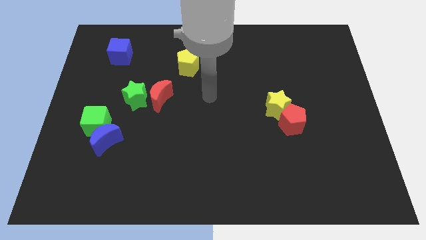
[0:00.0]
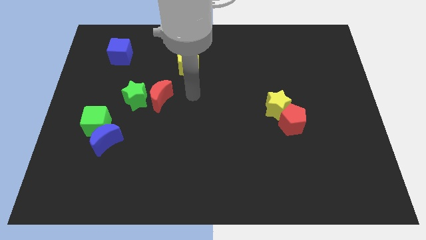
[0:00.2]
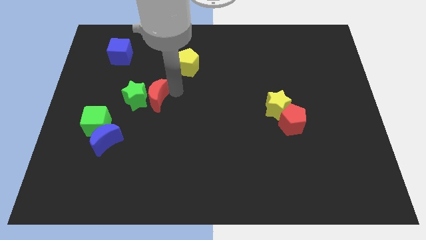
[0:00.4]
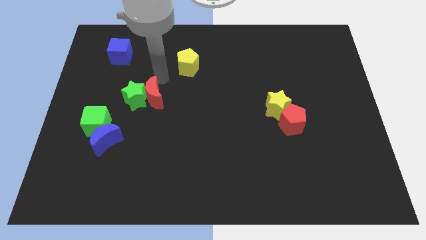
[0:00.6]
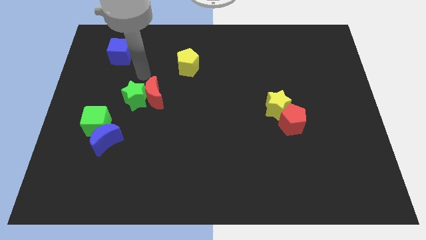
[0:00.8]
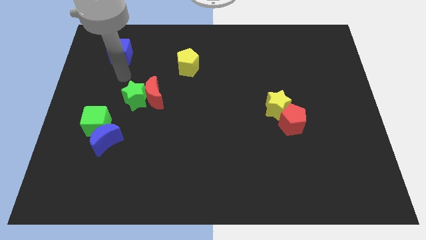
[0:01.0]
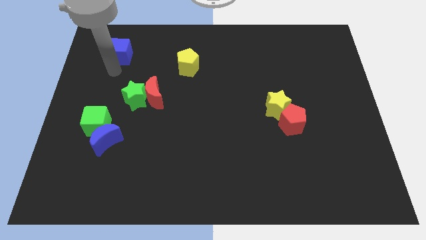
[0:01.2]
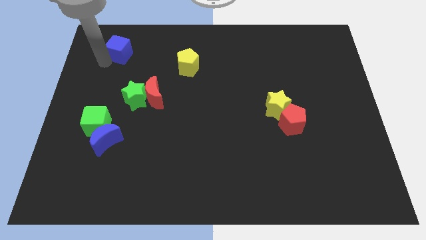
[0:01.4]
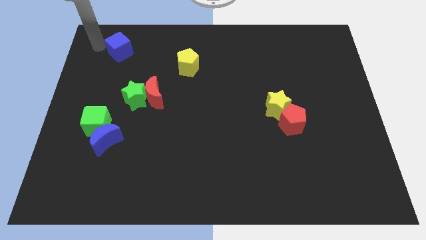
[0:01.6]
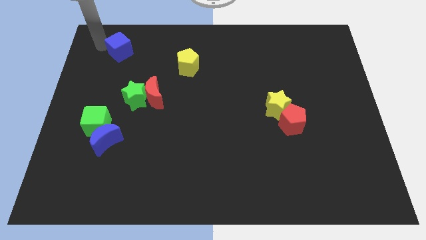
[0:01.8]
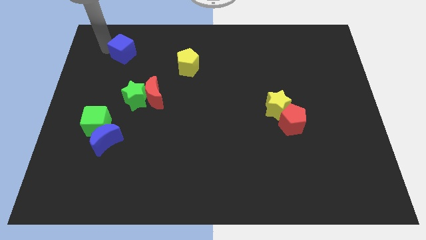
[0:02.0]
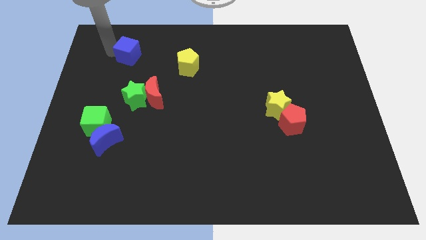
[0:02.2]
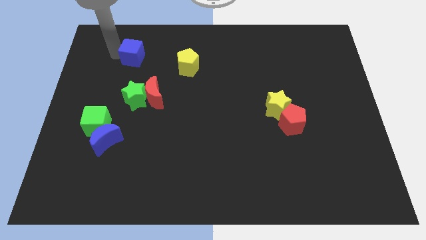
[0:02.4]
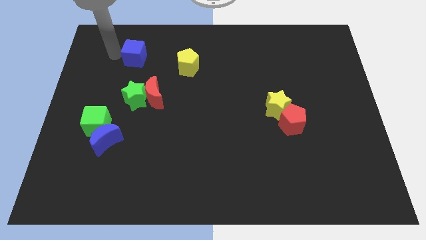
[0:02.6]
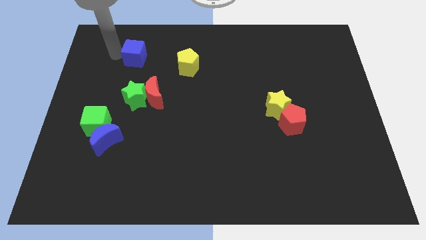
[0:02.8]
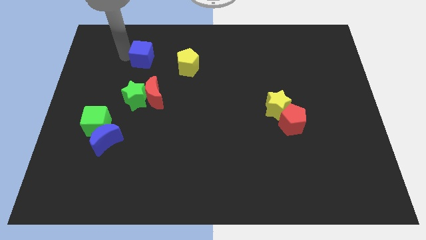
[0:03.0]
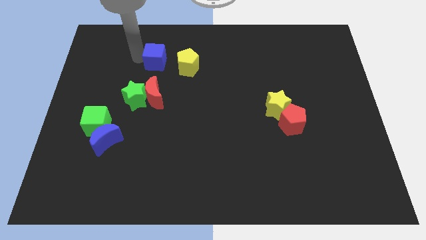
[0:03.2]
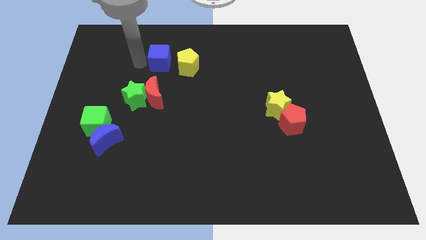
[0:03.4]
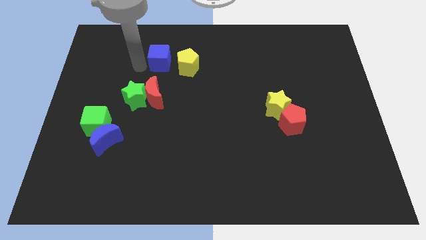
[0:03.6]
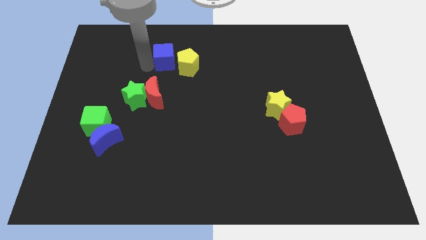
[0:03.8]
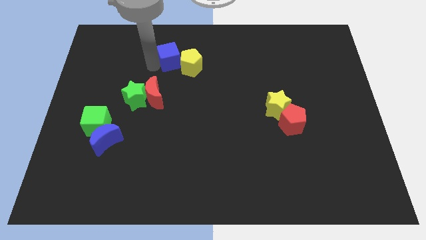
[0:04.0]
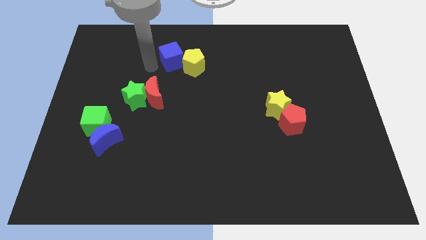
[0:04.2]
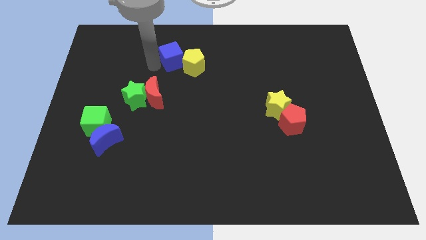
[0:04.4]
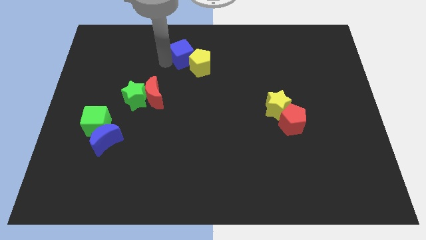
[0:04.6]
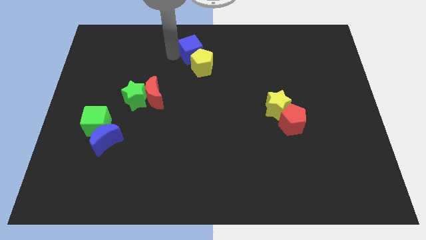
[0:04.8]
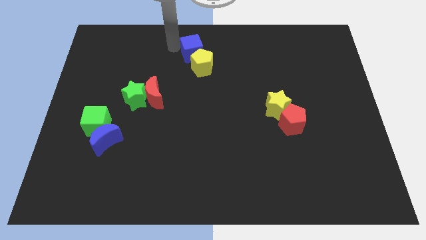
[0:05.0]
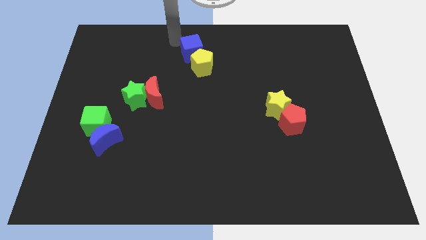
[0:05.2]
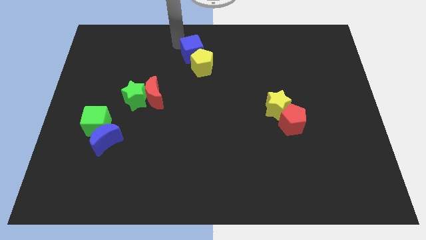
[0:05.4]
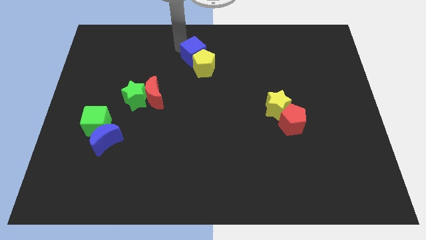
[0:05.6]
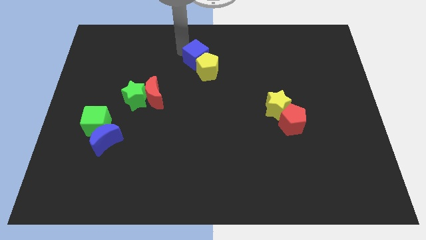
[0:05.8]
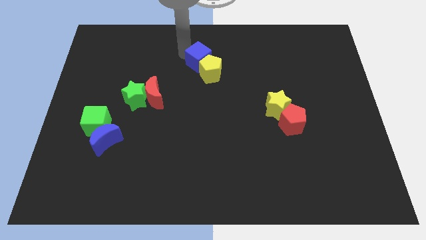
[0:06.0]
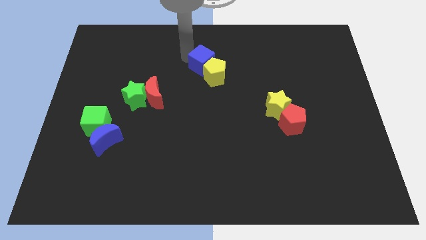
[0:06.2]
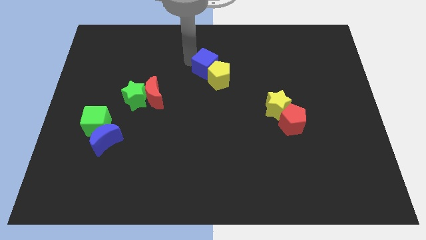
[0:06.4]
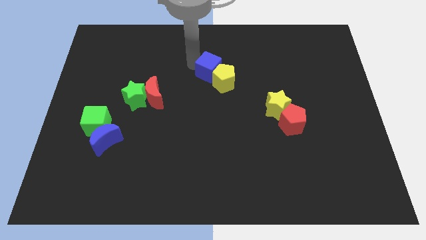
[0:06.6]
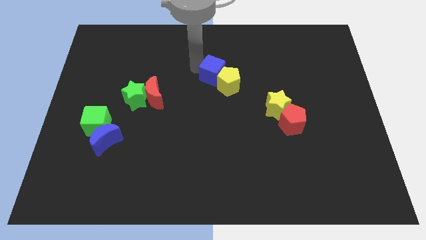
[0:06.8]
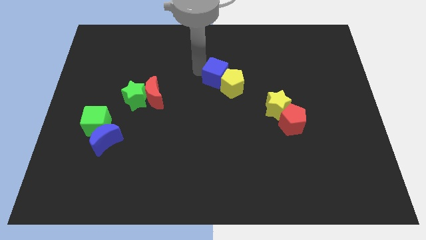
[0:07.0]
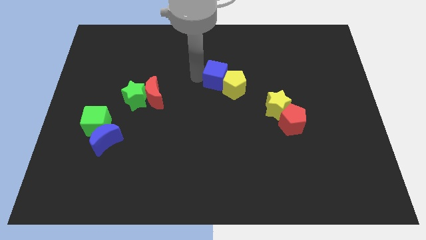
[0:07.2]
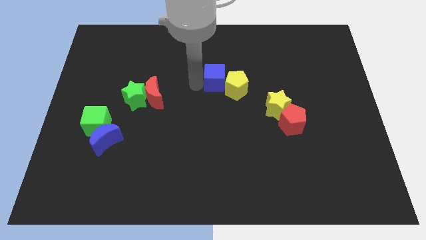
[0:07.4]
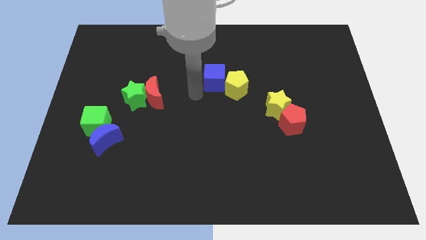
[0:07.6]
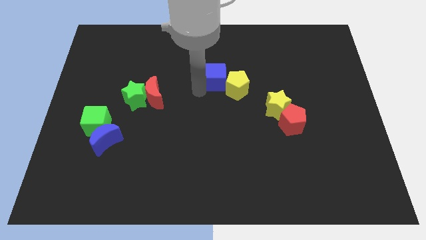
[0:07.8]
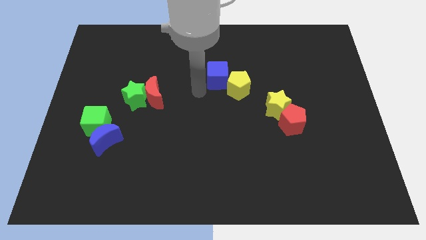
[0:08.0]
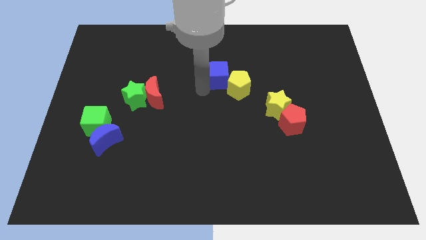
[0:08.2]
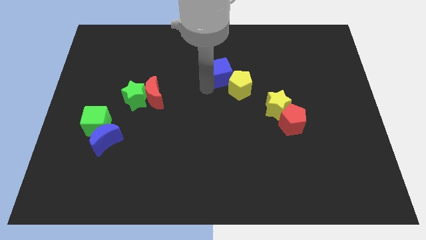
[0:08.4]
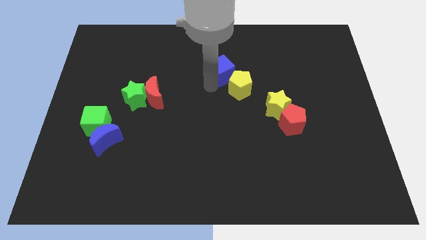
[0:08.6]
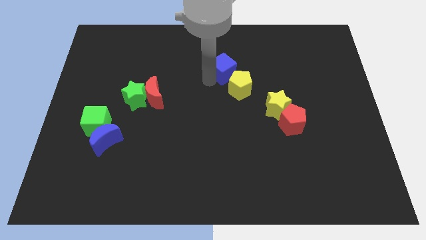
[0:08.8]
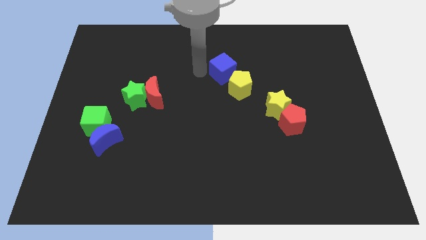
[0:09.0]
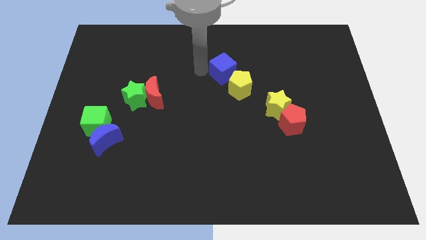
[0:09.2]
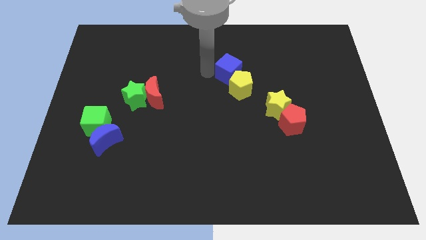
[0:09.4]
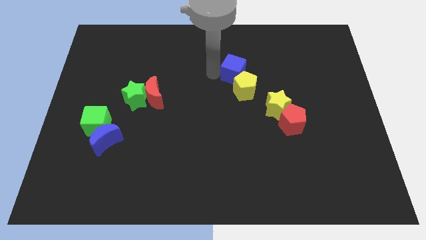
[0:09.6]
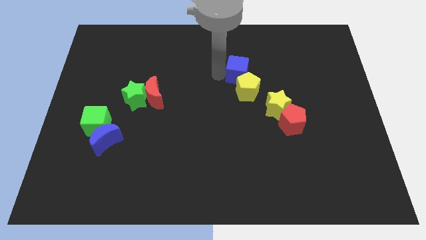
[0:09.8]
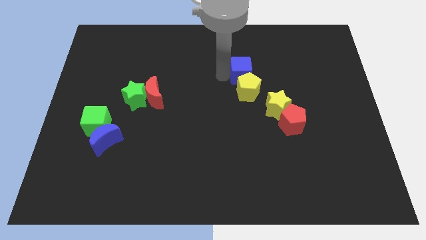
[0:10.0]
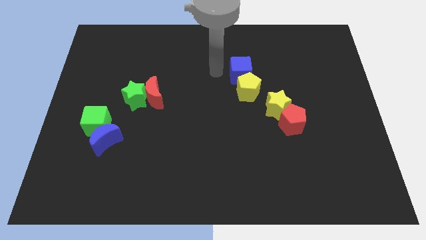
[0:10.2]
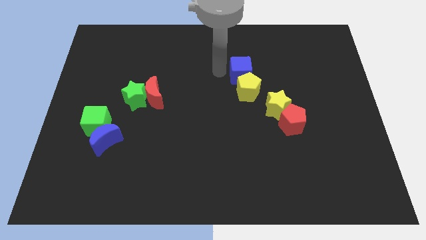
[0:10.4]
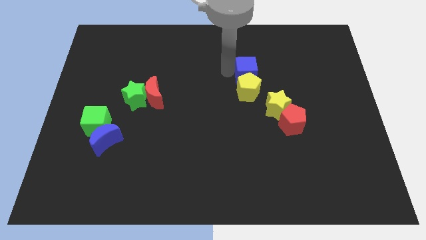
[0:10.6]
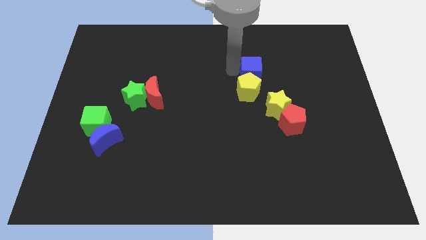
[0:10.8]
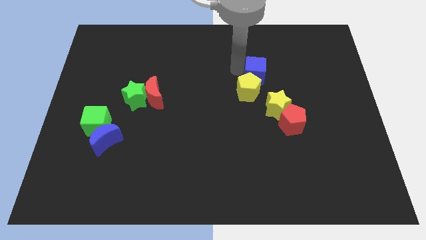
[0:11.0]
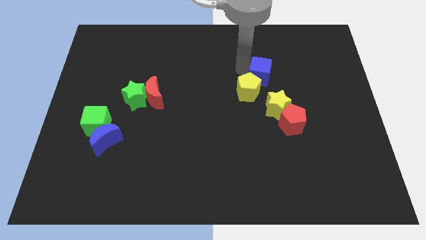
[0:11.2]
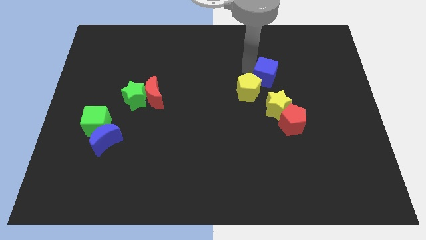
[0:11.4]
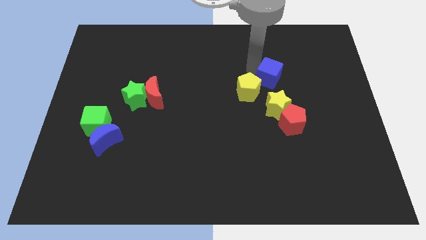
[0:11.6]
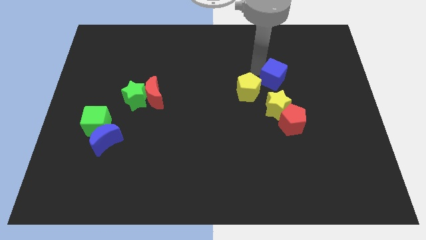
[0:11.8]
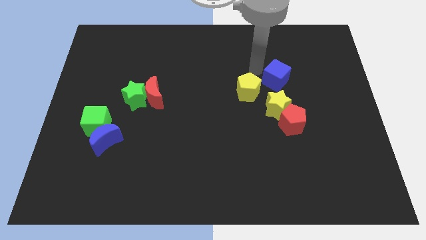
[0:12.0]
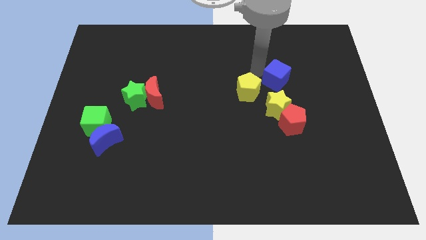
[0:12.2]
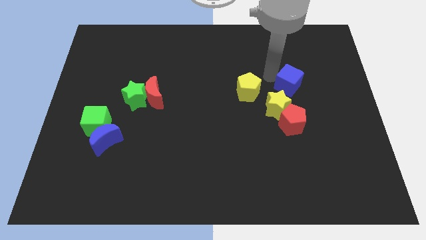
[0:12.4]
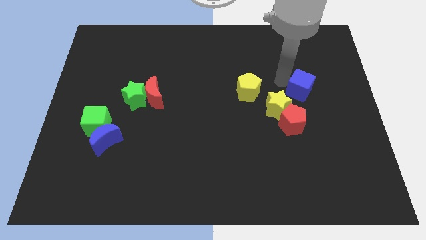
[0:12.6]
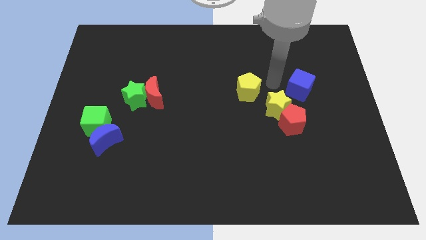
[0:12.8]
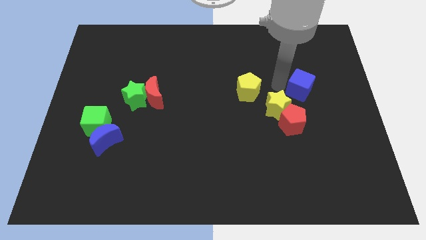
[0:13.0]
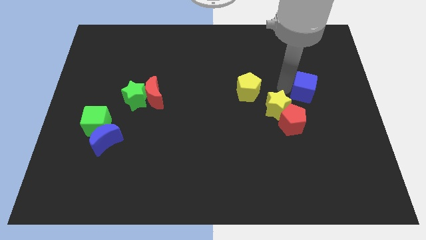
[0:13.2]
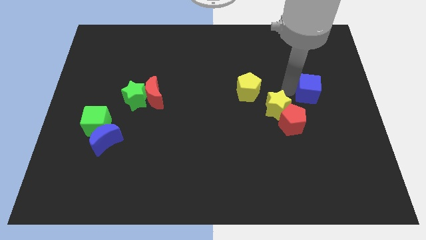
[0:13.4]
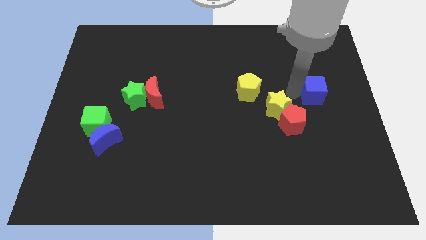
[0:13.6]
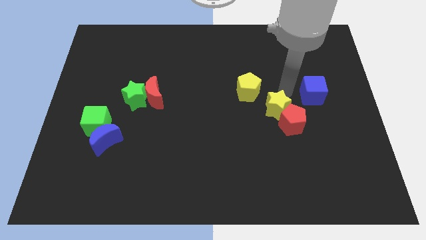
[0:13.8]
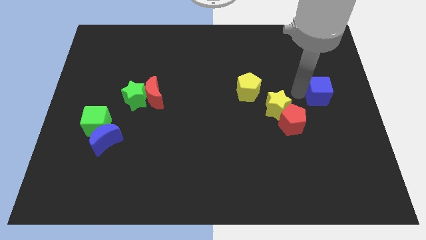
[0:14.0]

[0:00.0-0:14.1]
push the blue cube to the right side of the board

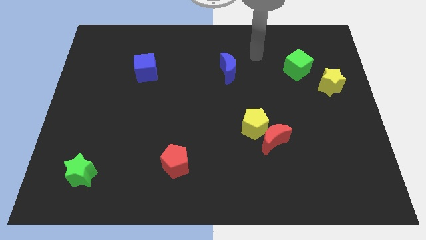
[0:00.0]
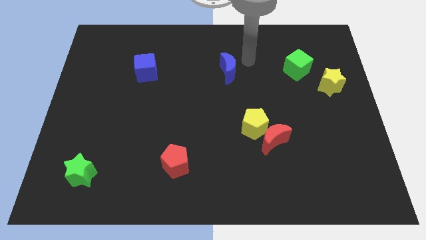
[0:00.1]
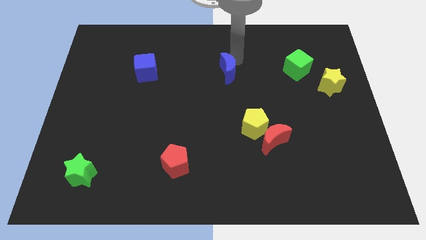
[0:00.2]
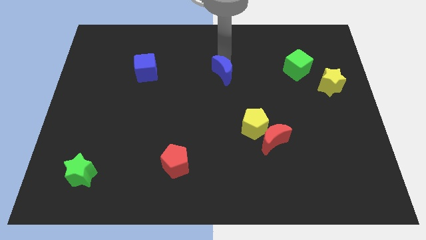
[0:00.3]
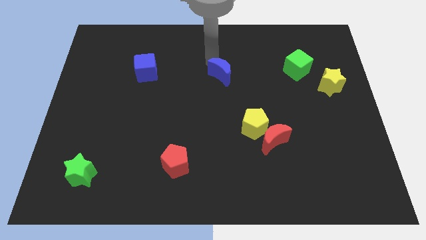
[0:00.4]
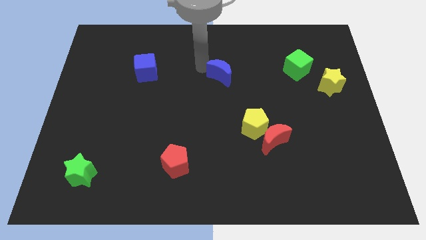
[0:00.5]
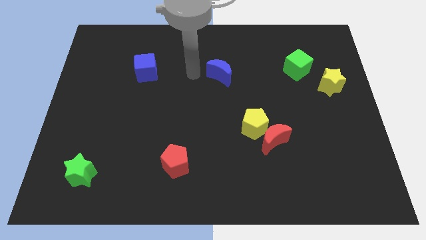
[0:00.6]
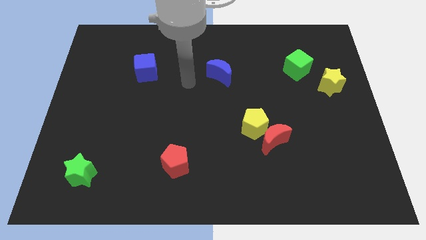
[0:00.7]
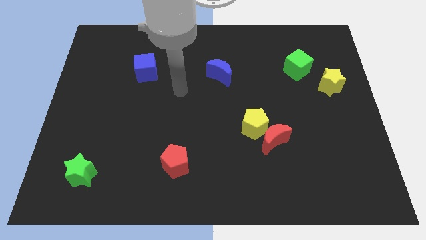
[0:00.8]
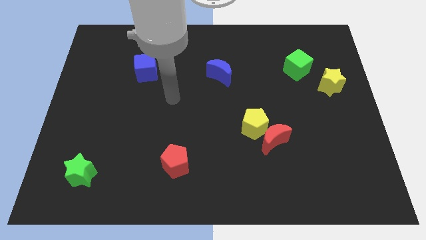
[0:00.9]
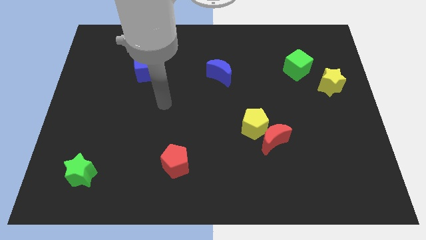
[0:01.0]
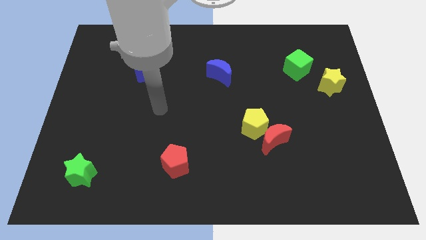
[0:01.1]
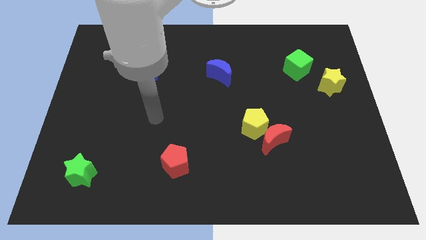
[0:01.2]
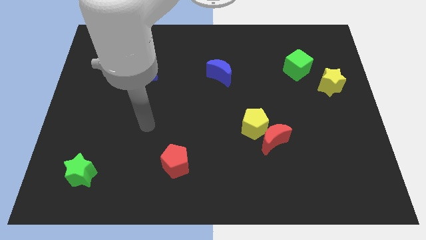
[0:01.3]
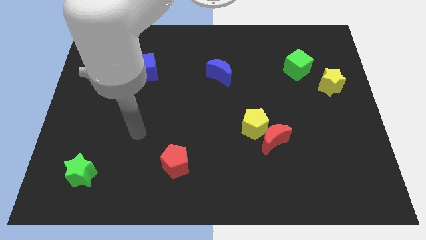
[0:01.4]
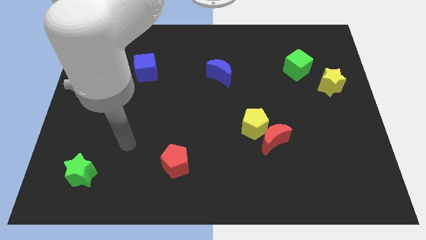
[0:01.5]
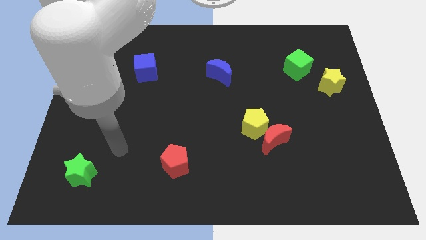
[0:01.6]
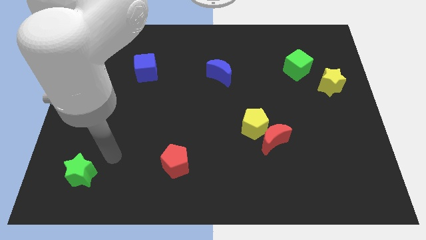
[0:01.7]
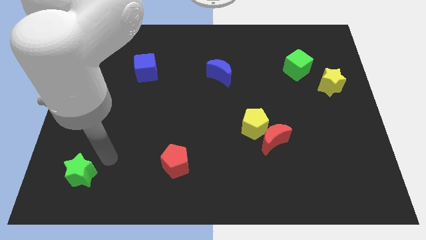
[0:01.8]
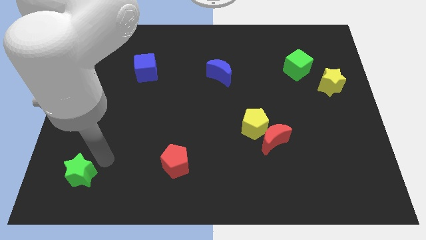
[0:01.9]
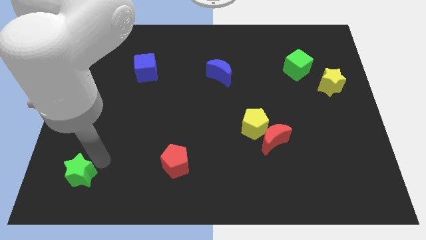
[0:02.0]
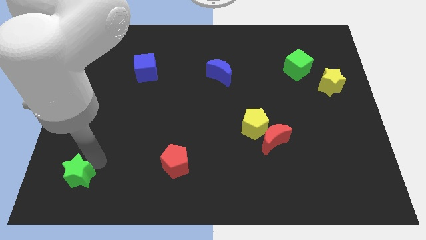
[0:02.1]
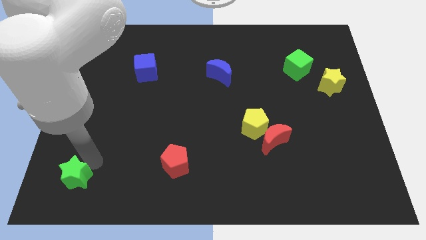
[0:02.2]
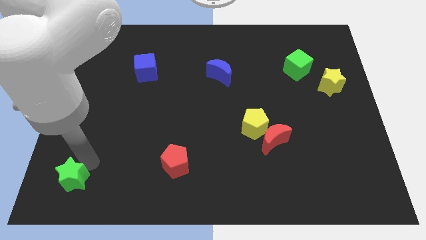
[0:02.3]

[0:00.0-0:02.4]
put the green star to the bottom left
